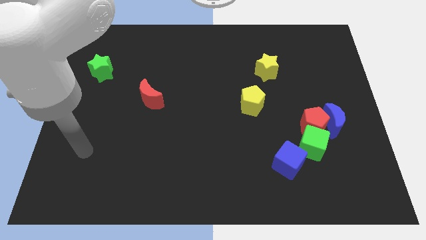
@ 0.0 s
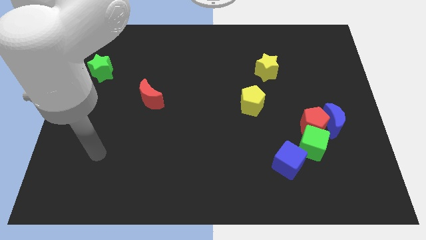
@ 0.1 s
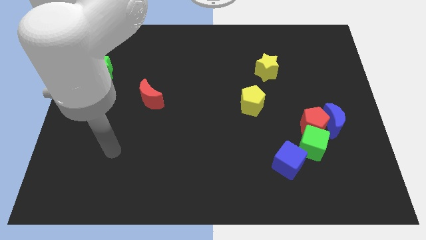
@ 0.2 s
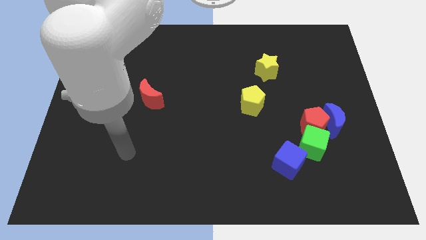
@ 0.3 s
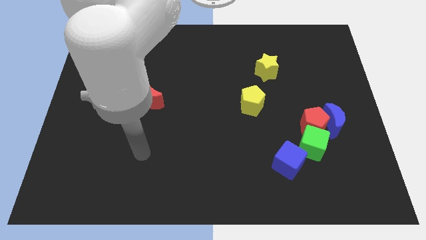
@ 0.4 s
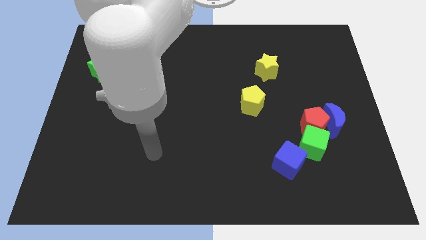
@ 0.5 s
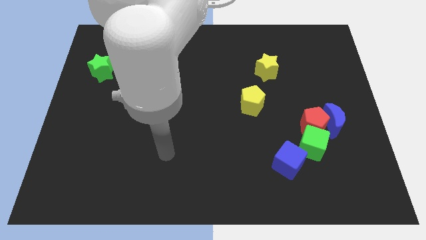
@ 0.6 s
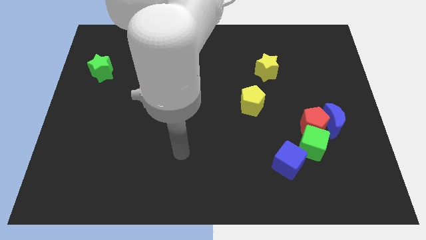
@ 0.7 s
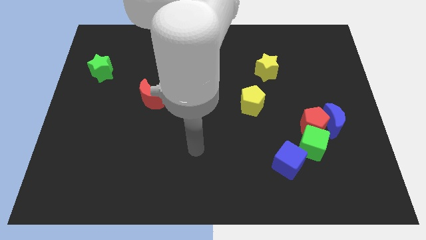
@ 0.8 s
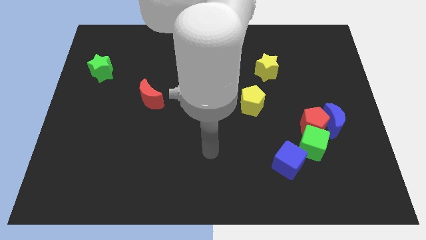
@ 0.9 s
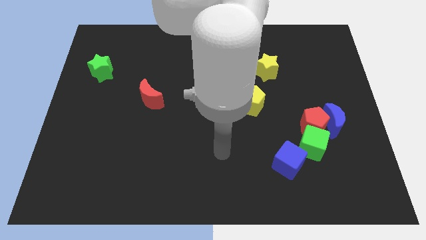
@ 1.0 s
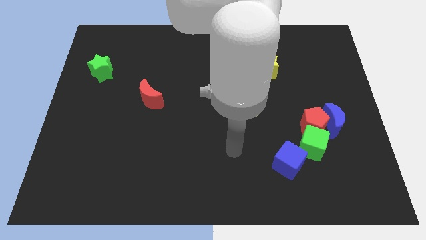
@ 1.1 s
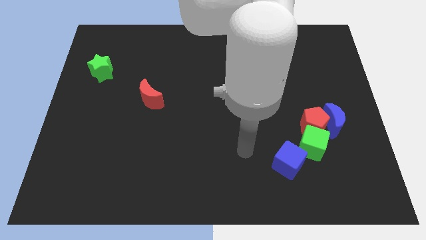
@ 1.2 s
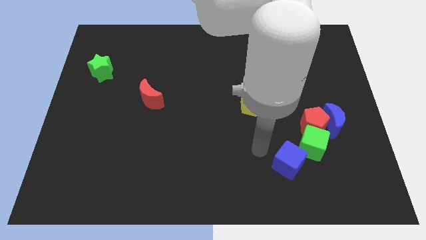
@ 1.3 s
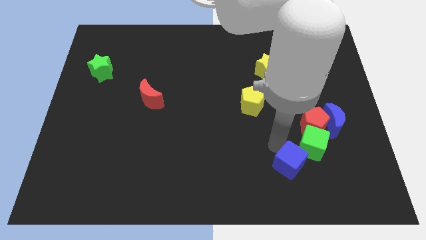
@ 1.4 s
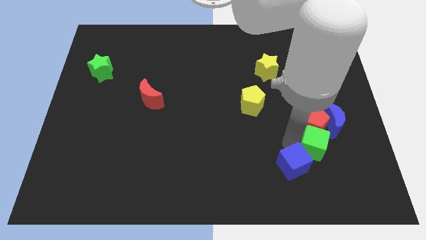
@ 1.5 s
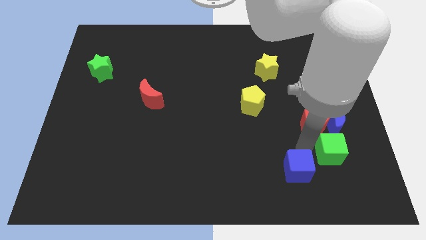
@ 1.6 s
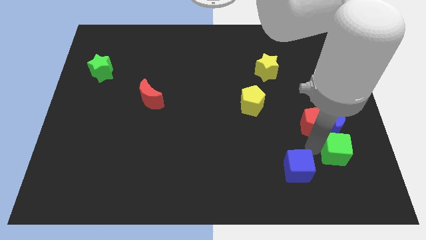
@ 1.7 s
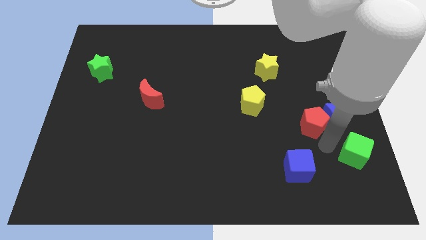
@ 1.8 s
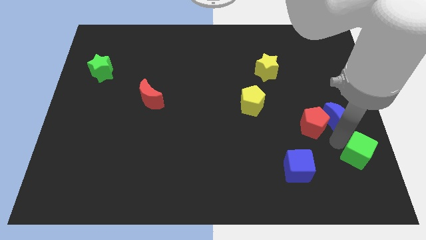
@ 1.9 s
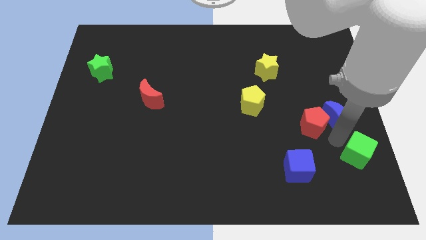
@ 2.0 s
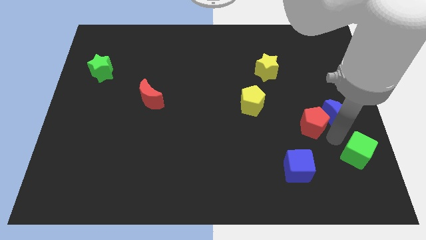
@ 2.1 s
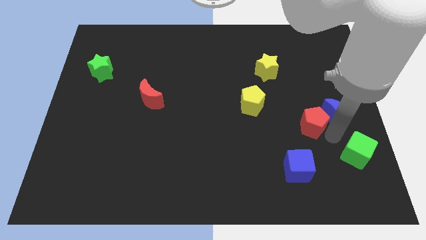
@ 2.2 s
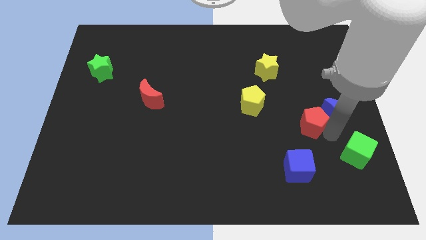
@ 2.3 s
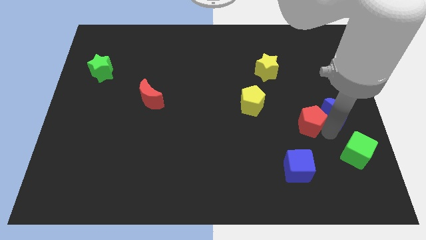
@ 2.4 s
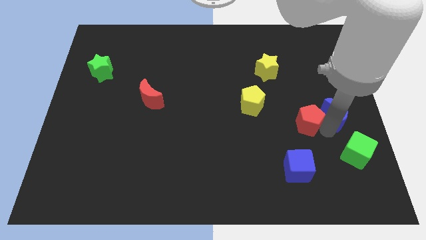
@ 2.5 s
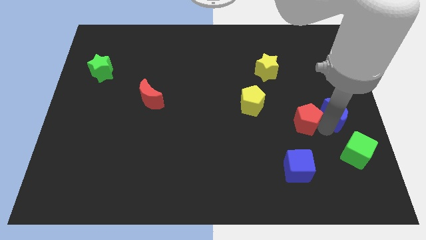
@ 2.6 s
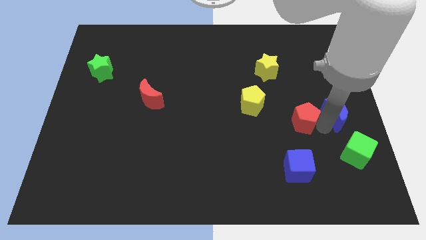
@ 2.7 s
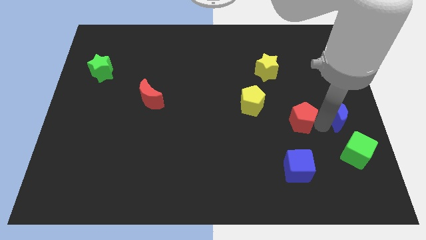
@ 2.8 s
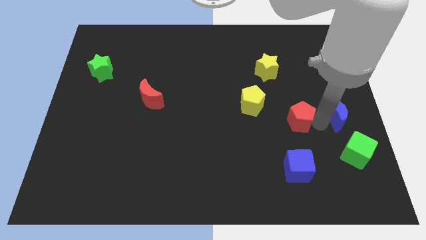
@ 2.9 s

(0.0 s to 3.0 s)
separate the red pentagon from the blue moon and green cube

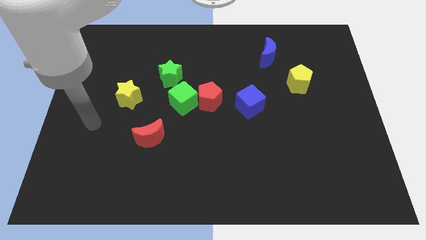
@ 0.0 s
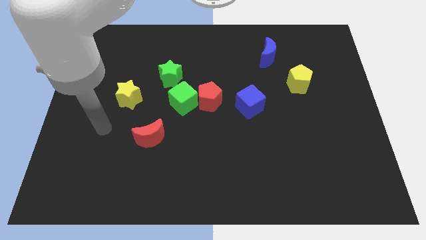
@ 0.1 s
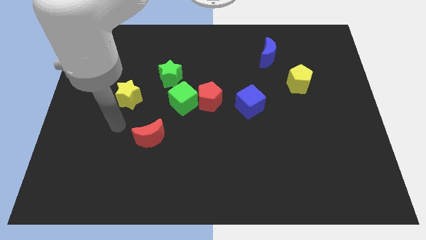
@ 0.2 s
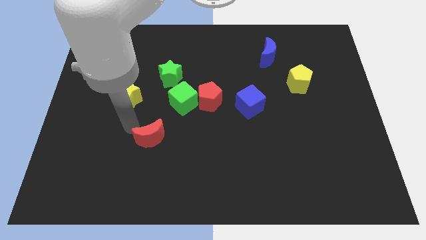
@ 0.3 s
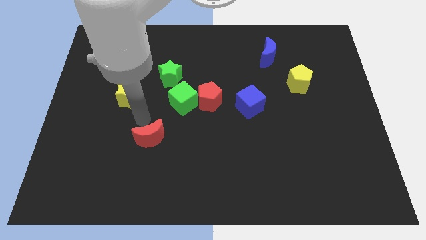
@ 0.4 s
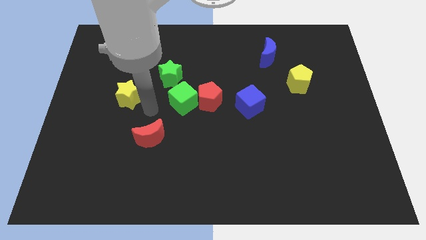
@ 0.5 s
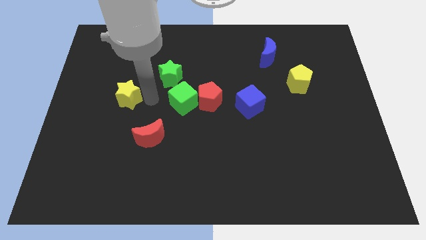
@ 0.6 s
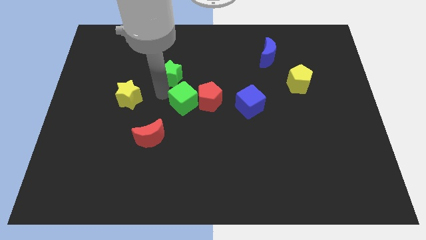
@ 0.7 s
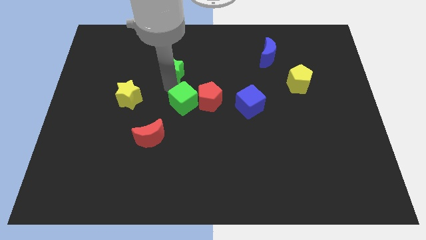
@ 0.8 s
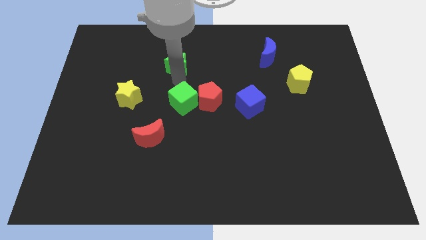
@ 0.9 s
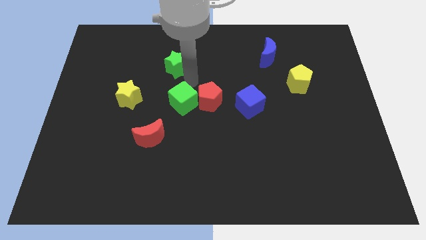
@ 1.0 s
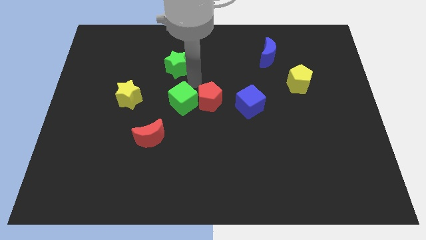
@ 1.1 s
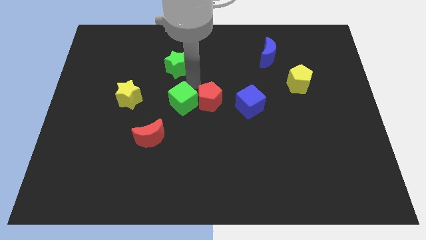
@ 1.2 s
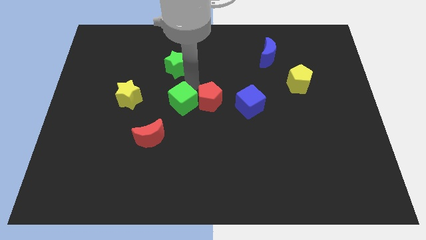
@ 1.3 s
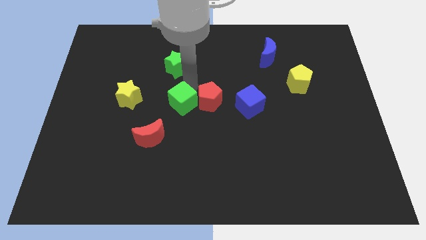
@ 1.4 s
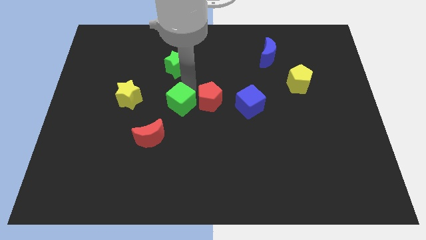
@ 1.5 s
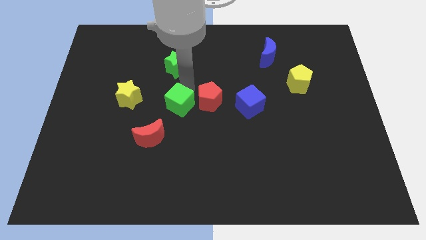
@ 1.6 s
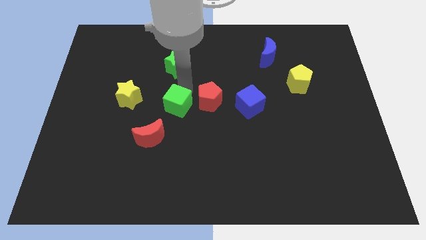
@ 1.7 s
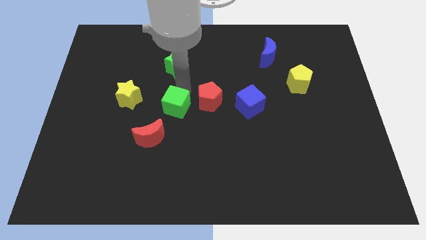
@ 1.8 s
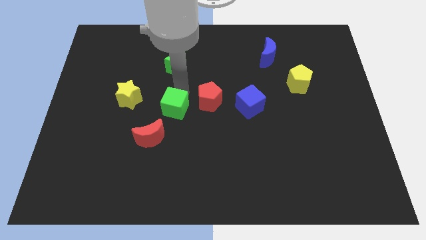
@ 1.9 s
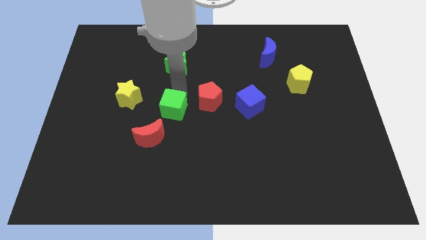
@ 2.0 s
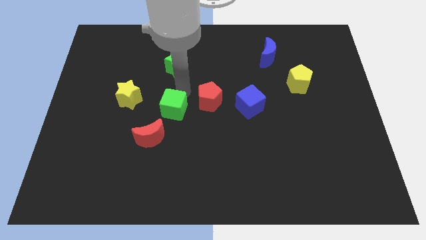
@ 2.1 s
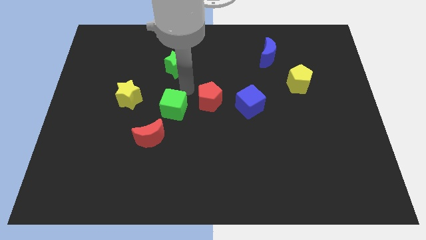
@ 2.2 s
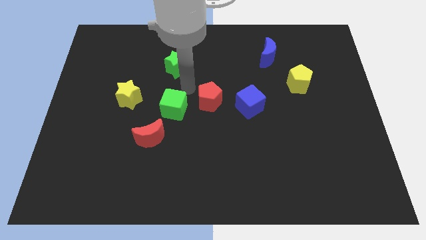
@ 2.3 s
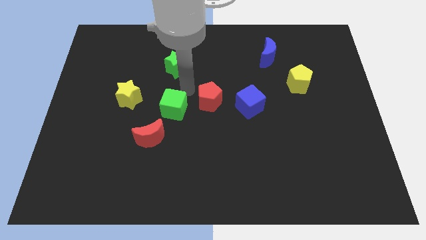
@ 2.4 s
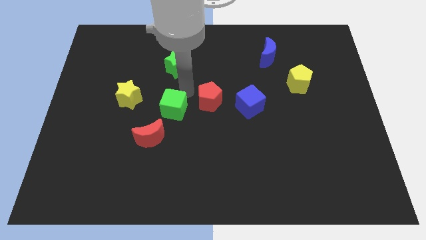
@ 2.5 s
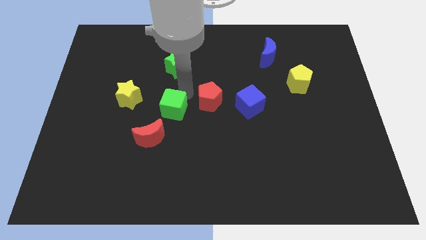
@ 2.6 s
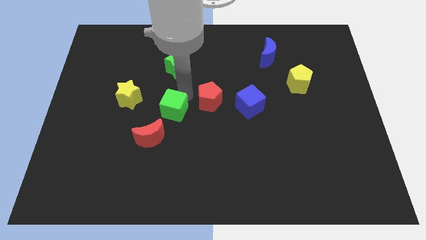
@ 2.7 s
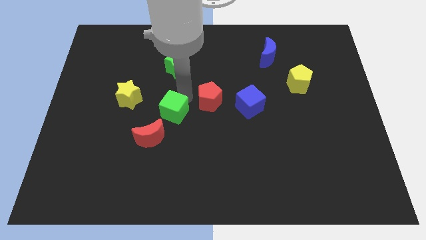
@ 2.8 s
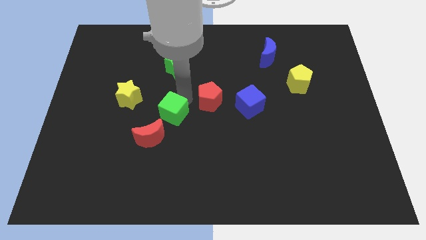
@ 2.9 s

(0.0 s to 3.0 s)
pull the green cube apart from the red pentagon and green star

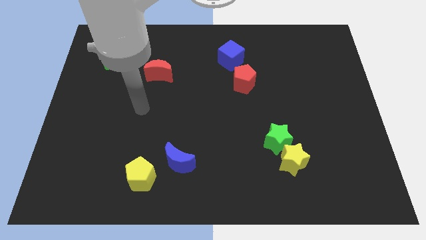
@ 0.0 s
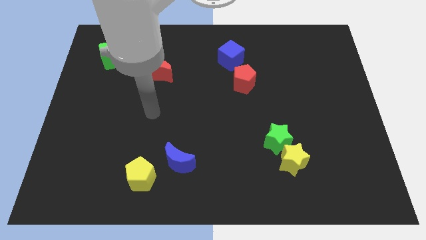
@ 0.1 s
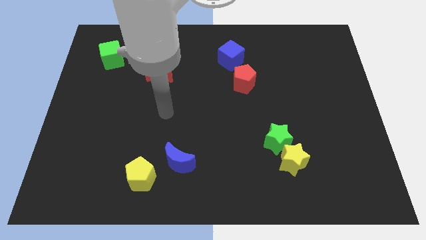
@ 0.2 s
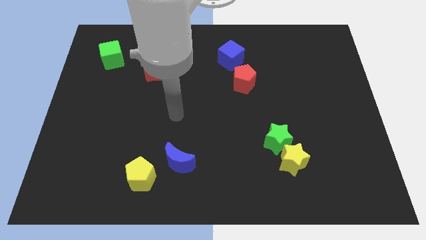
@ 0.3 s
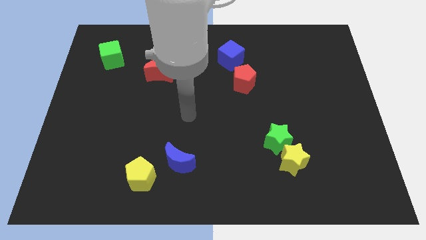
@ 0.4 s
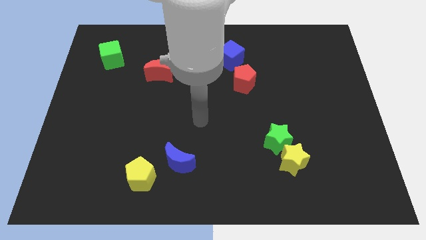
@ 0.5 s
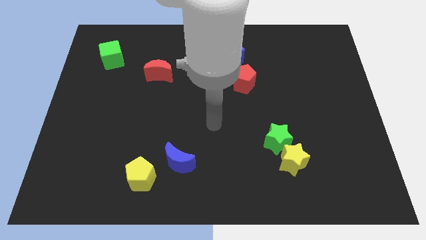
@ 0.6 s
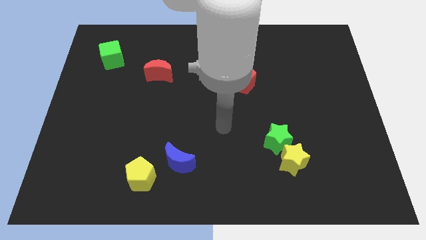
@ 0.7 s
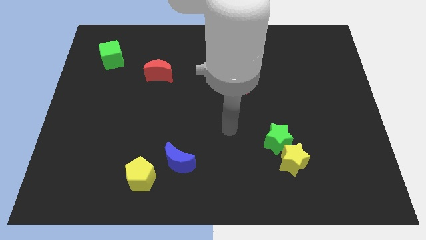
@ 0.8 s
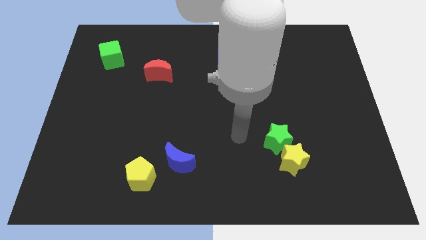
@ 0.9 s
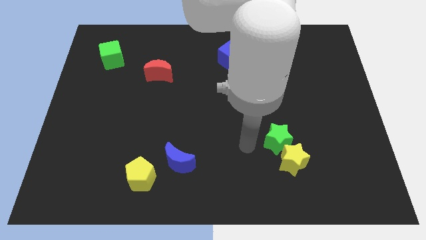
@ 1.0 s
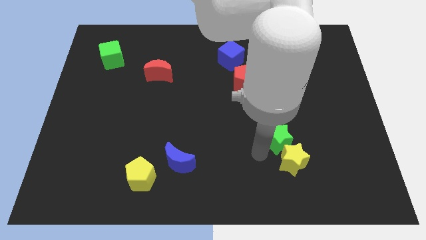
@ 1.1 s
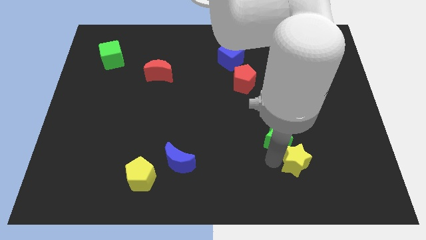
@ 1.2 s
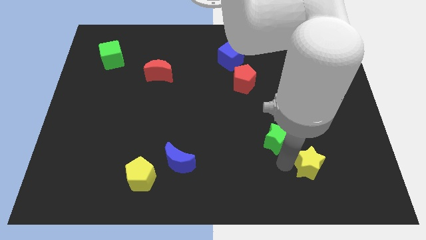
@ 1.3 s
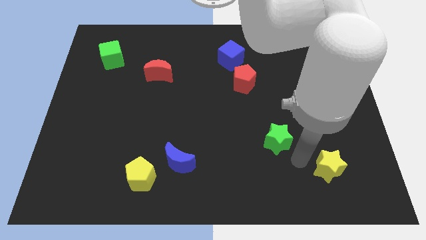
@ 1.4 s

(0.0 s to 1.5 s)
move the green star away from the yellow star

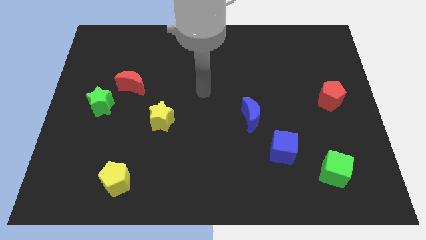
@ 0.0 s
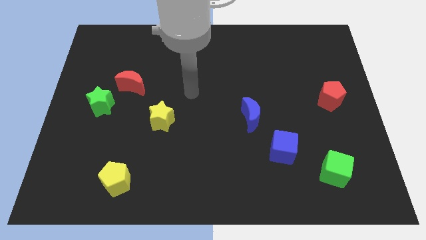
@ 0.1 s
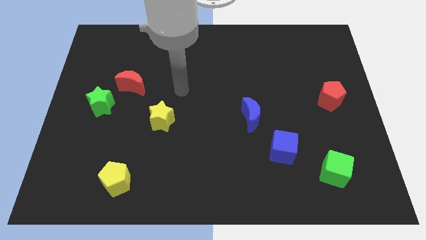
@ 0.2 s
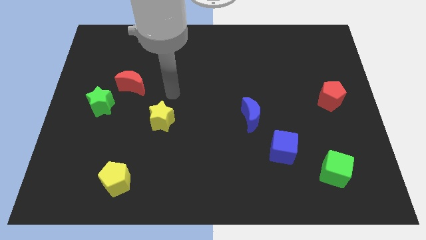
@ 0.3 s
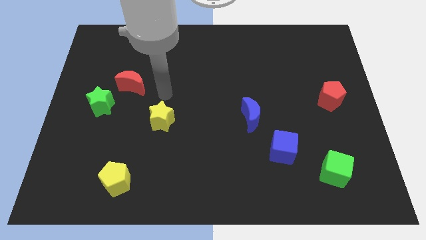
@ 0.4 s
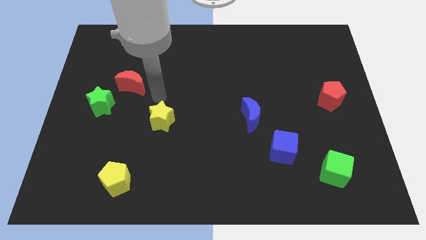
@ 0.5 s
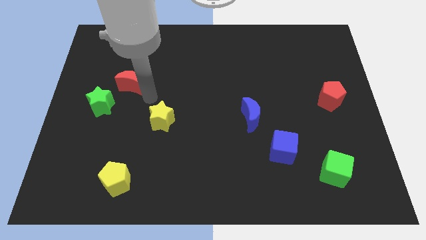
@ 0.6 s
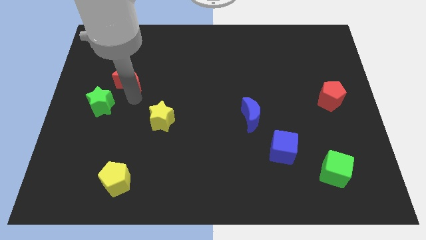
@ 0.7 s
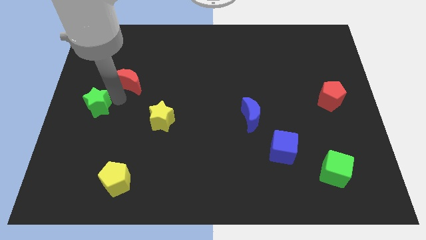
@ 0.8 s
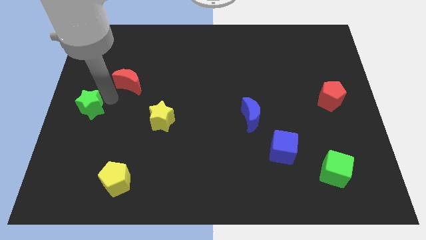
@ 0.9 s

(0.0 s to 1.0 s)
pull the red moon apart from the green star

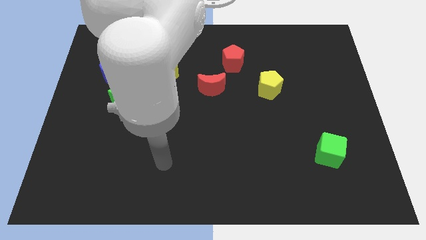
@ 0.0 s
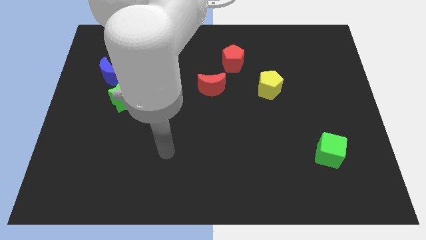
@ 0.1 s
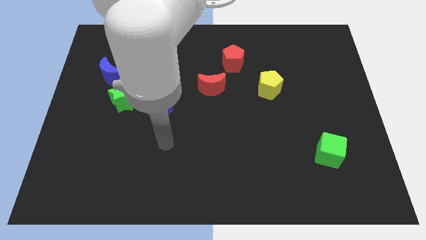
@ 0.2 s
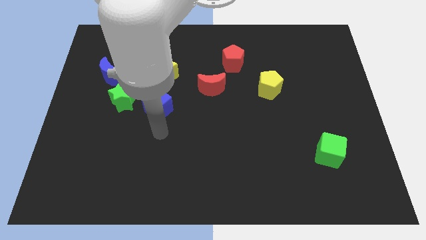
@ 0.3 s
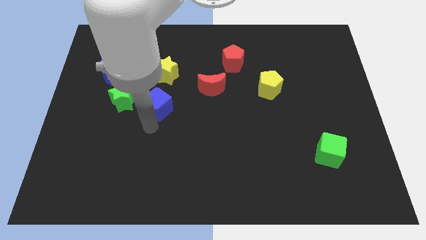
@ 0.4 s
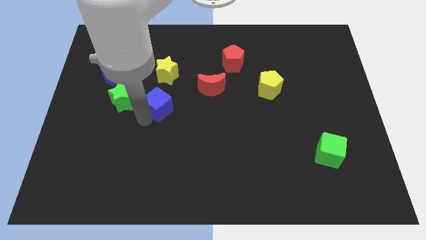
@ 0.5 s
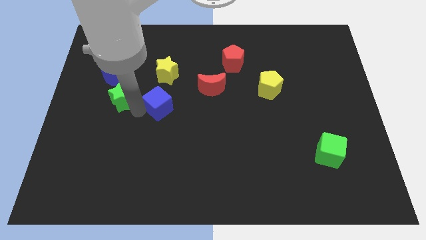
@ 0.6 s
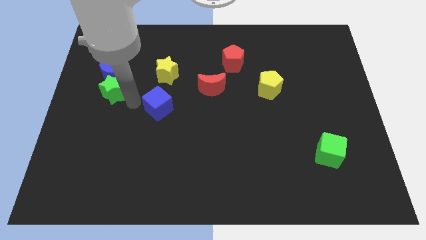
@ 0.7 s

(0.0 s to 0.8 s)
pull the blue cube apart from the green star

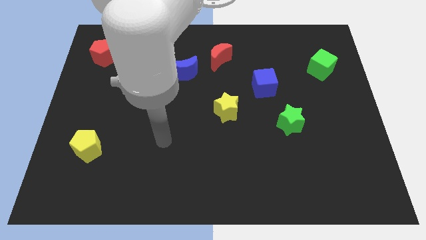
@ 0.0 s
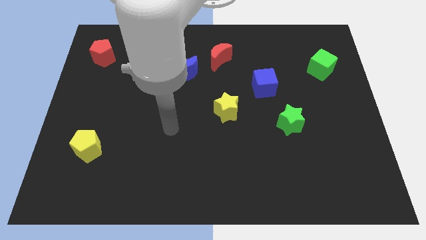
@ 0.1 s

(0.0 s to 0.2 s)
separate the red moon from the blue moon
